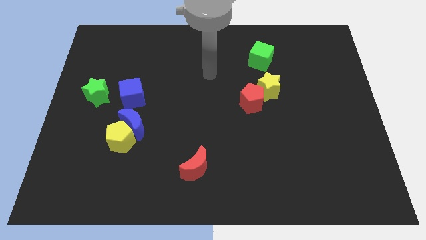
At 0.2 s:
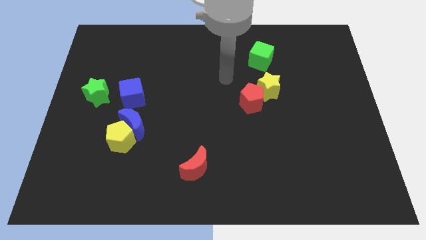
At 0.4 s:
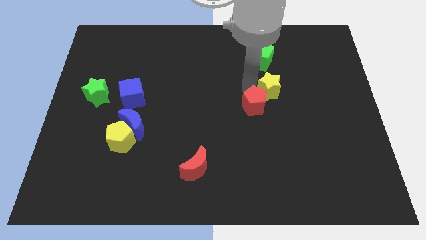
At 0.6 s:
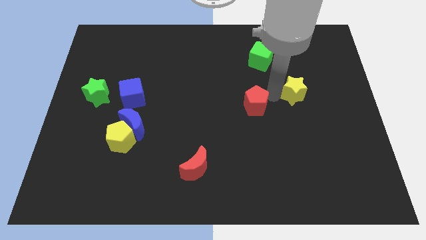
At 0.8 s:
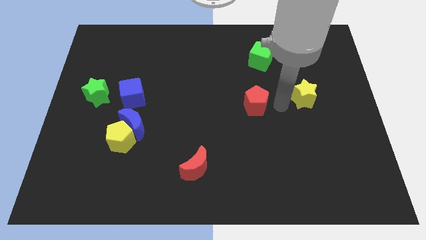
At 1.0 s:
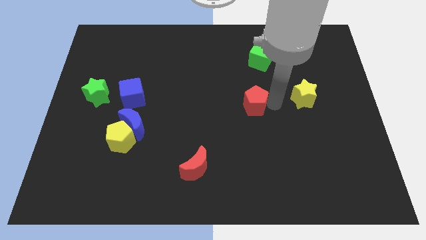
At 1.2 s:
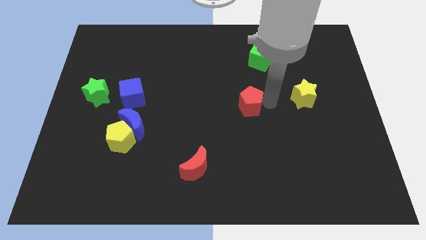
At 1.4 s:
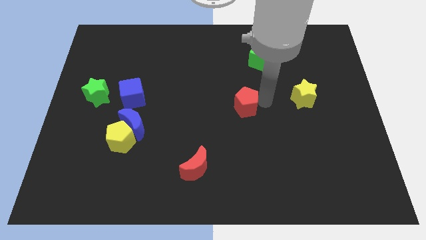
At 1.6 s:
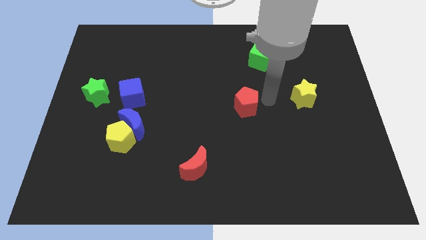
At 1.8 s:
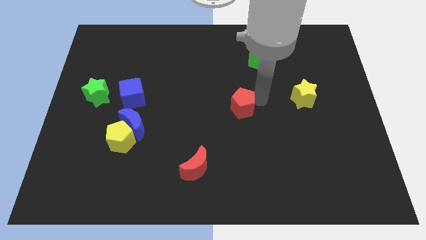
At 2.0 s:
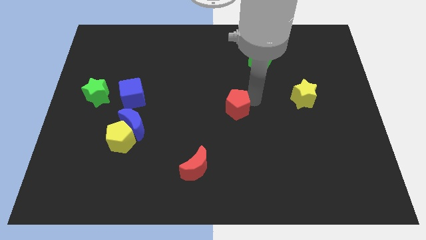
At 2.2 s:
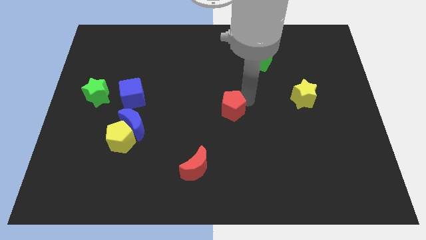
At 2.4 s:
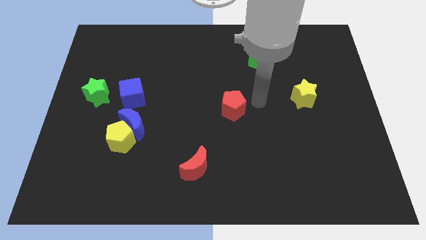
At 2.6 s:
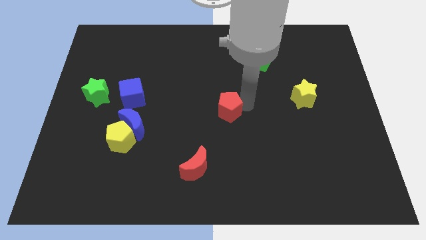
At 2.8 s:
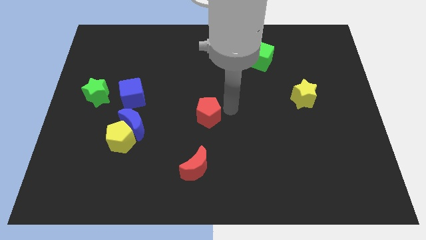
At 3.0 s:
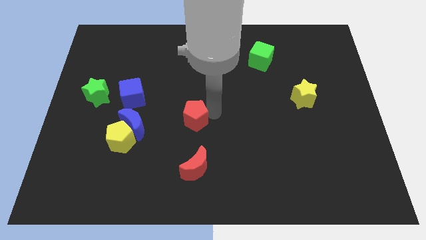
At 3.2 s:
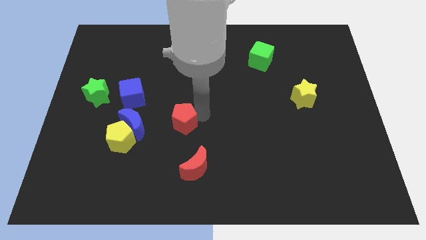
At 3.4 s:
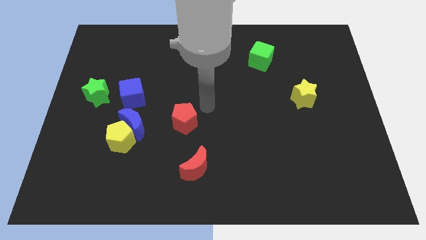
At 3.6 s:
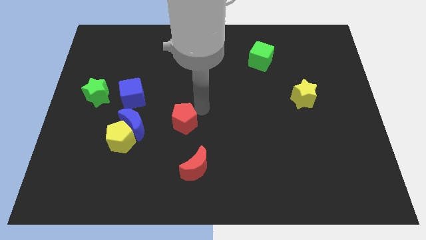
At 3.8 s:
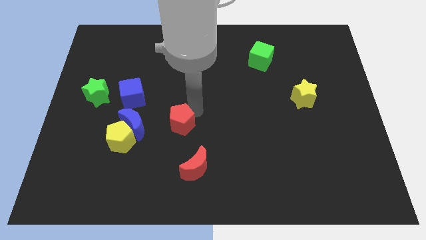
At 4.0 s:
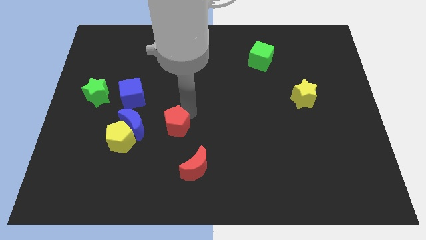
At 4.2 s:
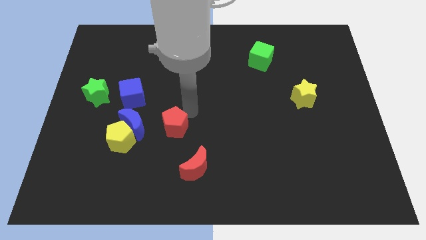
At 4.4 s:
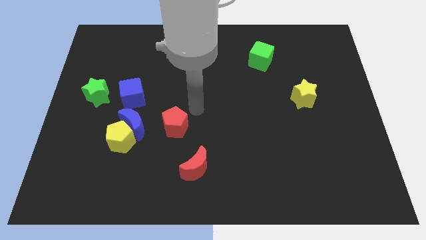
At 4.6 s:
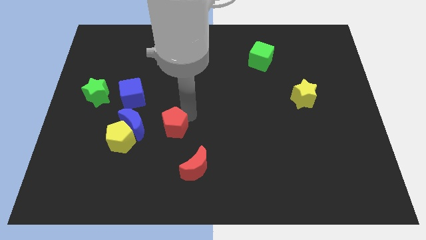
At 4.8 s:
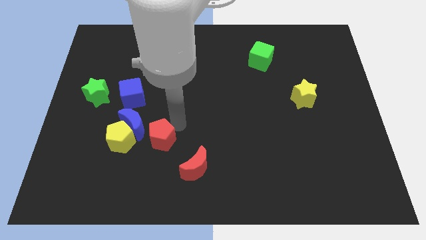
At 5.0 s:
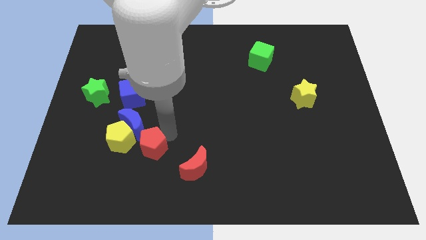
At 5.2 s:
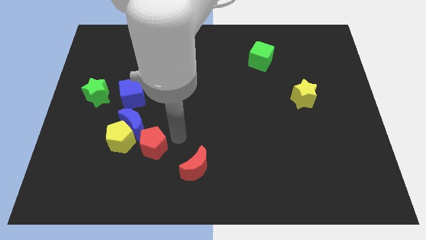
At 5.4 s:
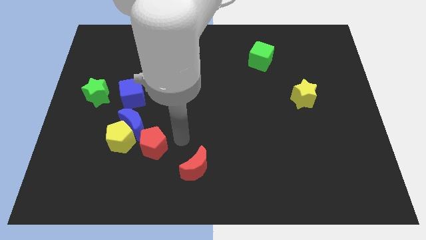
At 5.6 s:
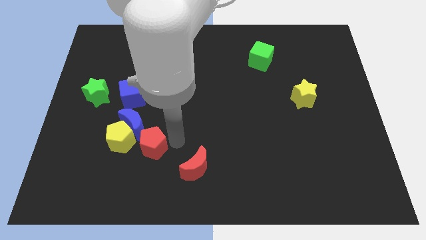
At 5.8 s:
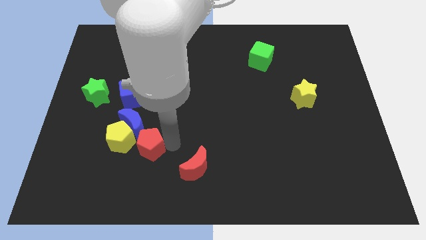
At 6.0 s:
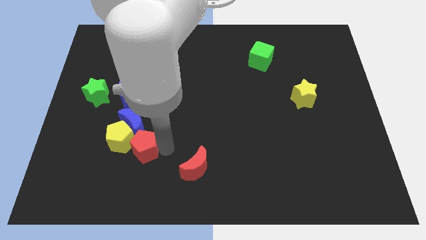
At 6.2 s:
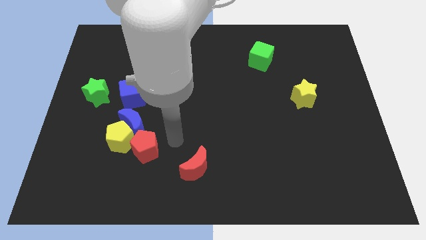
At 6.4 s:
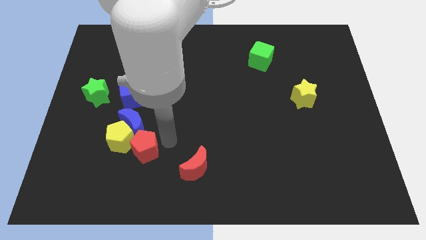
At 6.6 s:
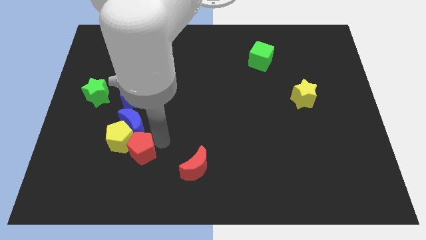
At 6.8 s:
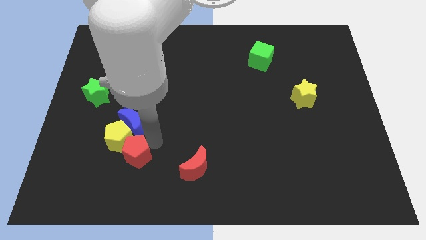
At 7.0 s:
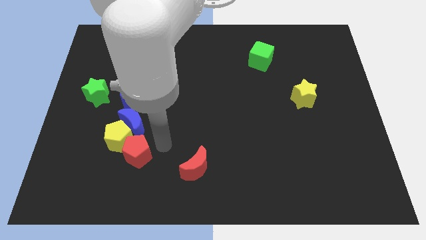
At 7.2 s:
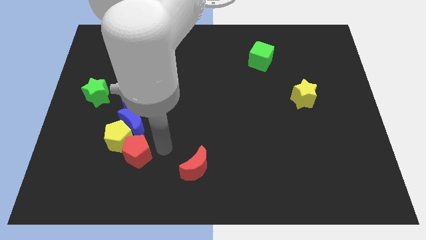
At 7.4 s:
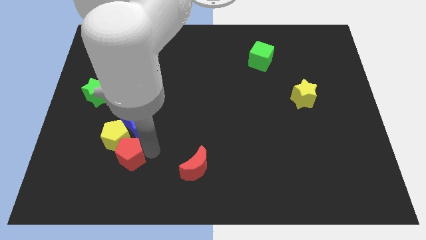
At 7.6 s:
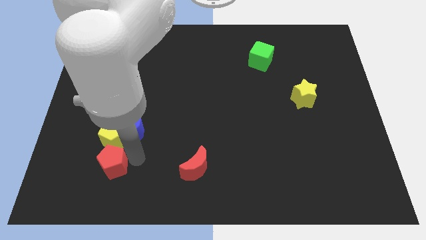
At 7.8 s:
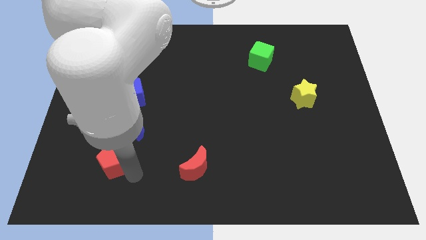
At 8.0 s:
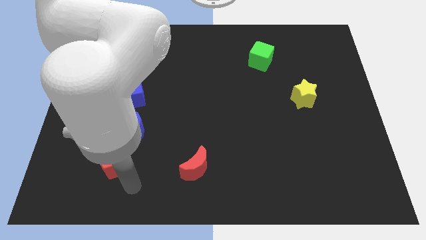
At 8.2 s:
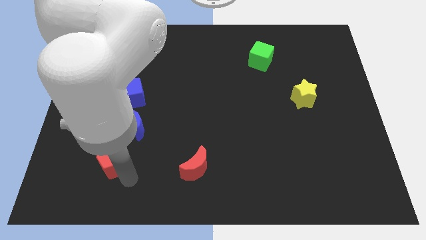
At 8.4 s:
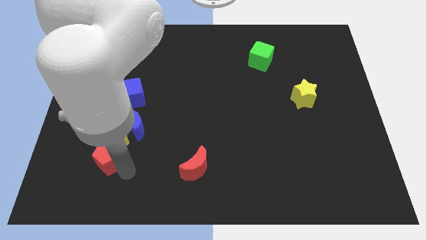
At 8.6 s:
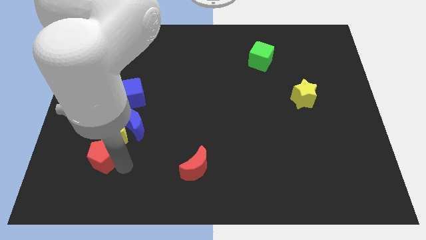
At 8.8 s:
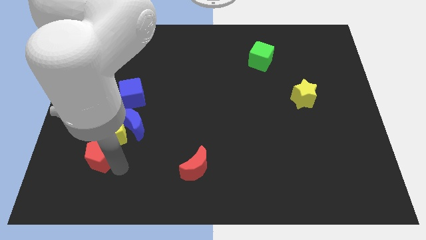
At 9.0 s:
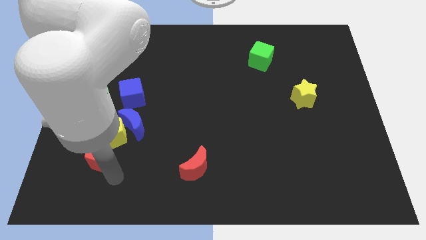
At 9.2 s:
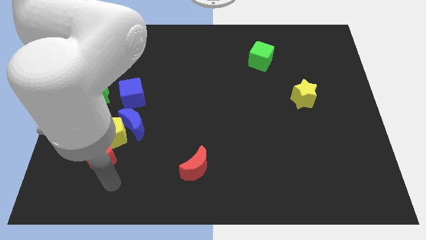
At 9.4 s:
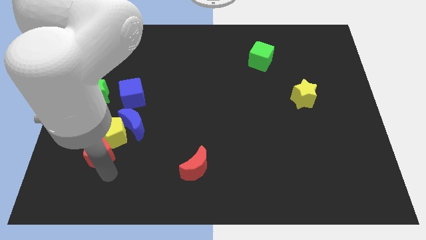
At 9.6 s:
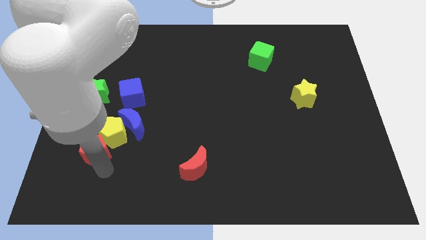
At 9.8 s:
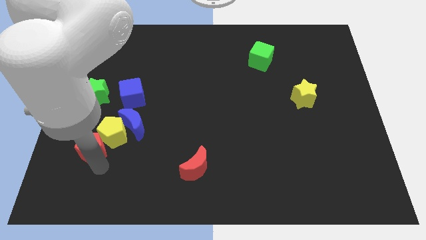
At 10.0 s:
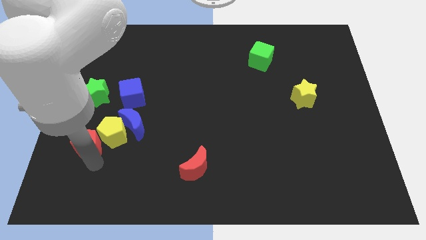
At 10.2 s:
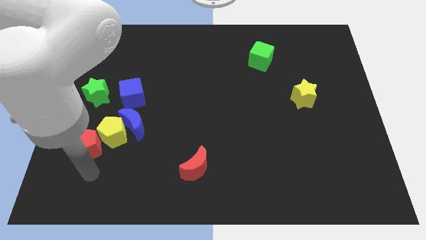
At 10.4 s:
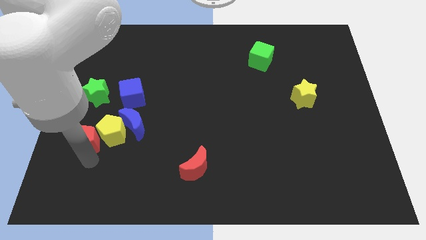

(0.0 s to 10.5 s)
slide the red pentagon to the left of the blue moon

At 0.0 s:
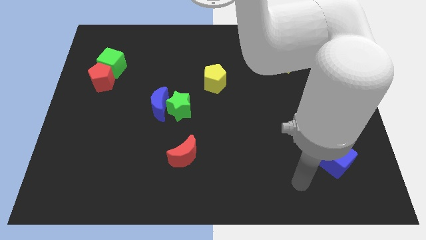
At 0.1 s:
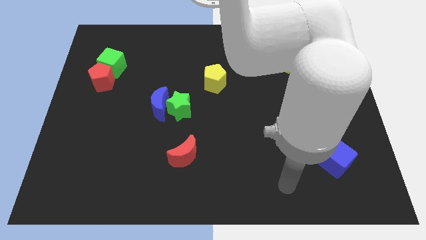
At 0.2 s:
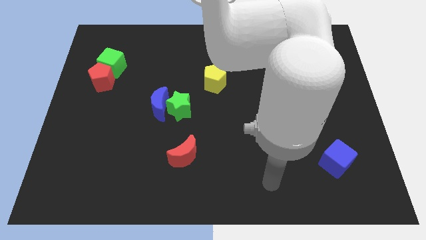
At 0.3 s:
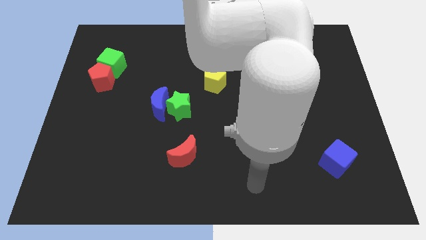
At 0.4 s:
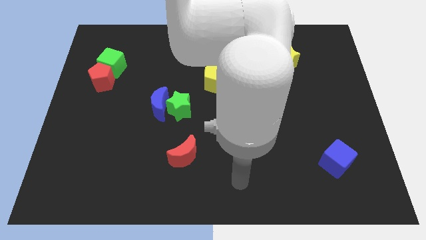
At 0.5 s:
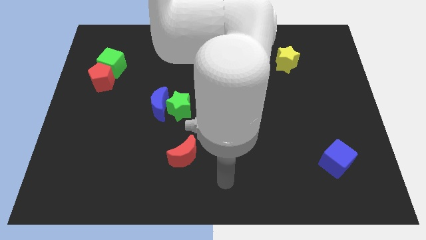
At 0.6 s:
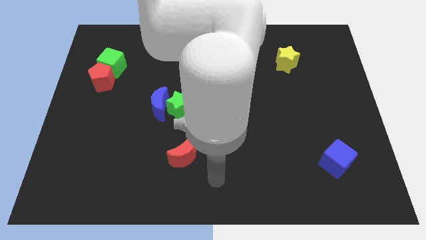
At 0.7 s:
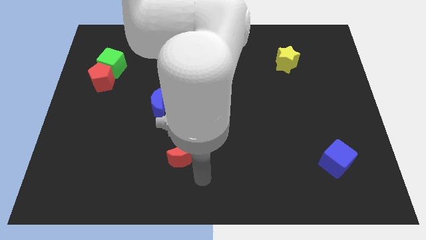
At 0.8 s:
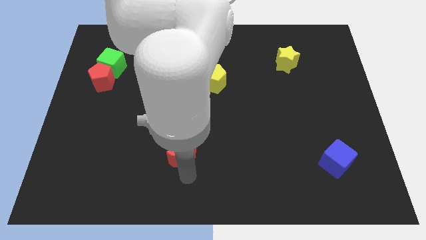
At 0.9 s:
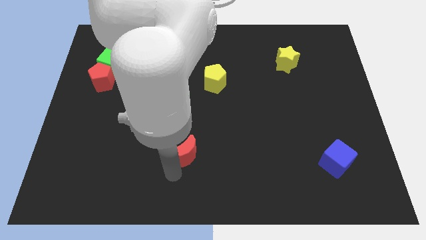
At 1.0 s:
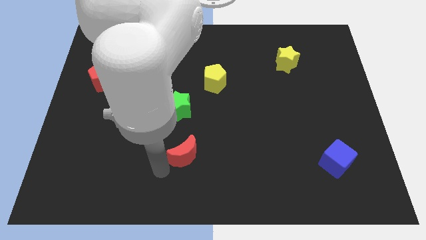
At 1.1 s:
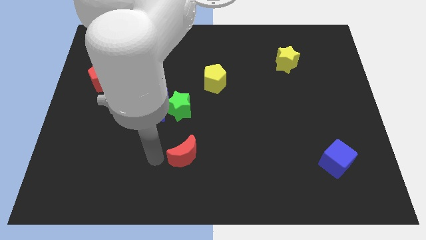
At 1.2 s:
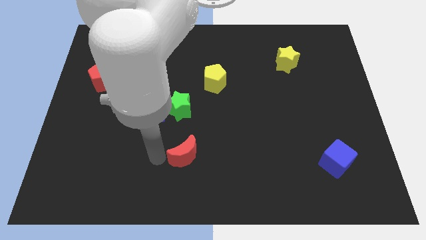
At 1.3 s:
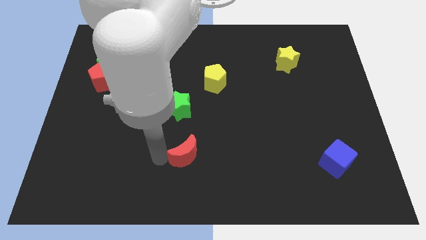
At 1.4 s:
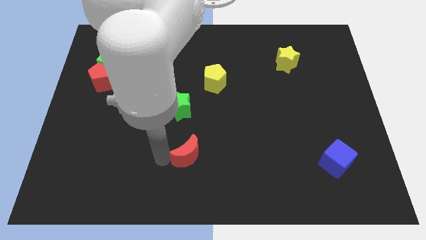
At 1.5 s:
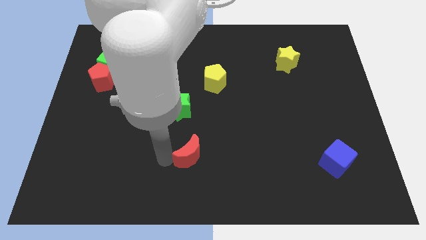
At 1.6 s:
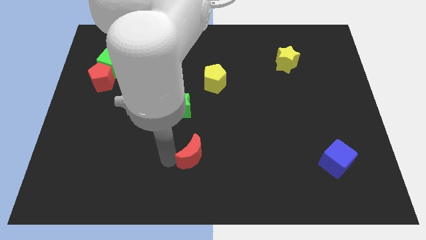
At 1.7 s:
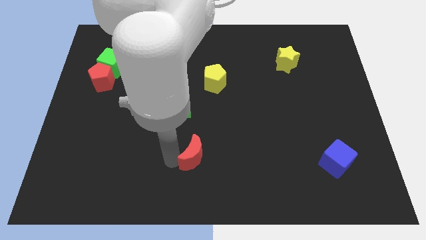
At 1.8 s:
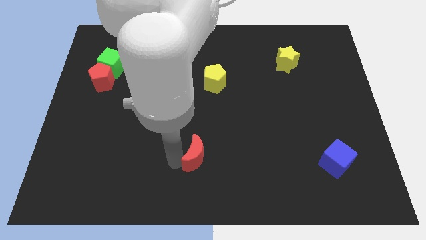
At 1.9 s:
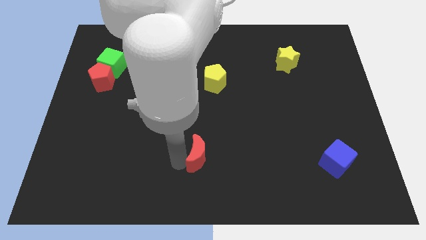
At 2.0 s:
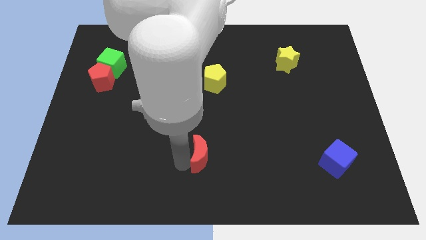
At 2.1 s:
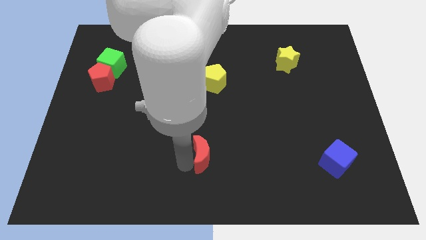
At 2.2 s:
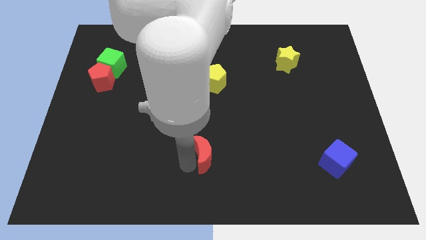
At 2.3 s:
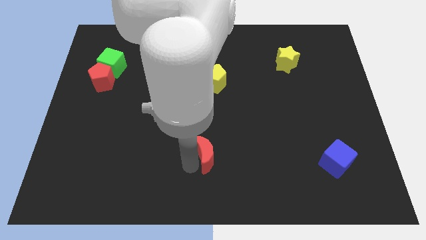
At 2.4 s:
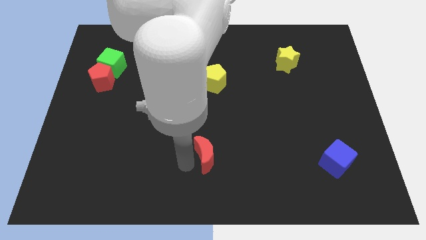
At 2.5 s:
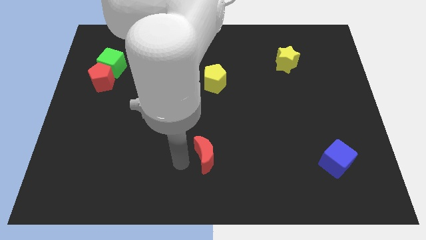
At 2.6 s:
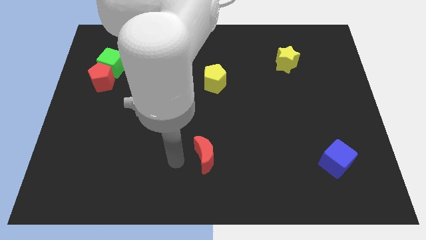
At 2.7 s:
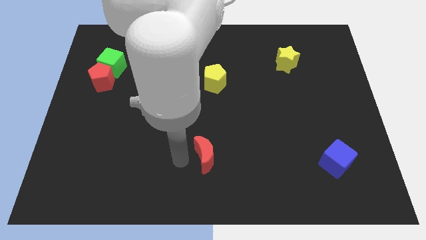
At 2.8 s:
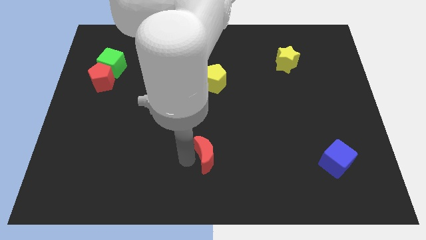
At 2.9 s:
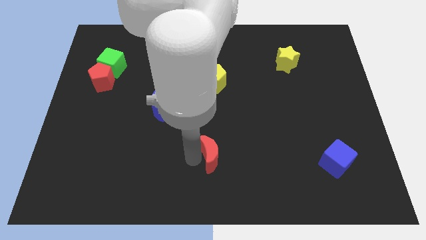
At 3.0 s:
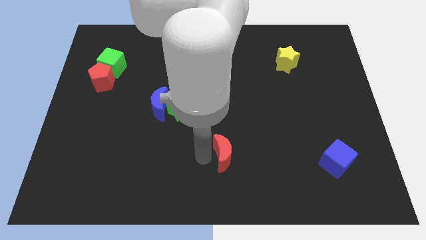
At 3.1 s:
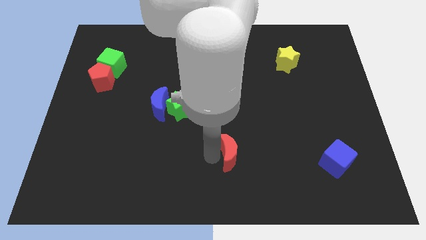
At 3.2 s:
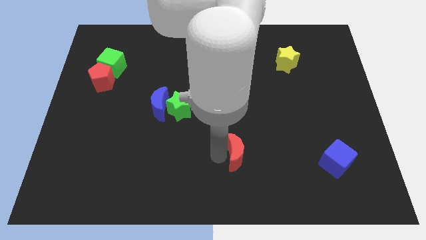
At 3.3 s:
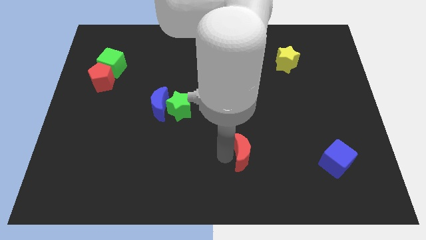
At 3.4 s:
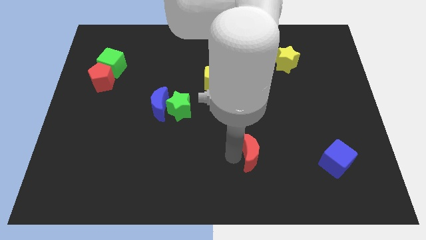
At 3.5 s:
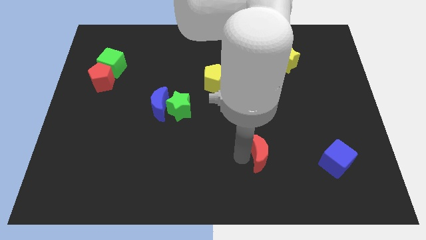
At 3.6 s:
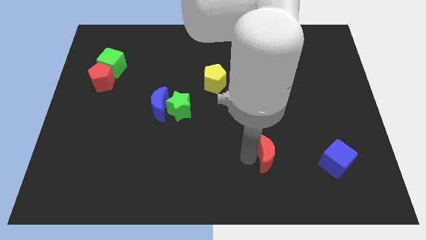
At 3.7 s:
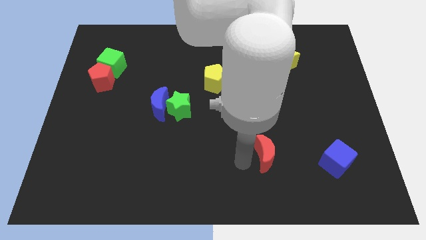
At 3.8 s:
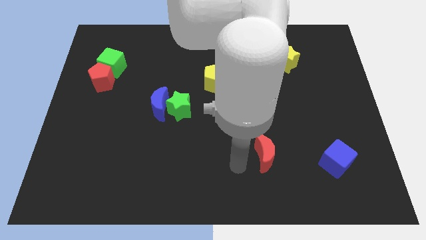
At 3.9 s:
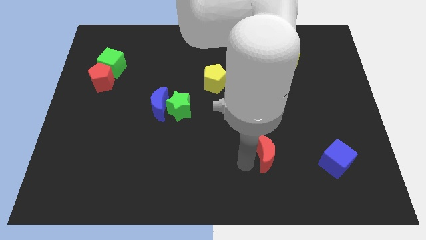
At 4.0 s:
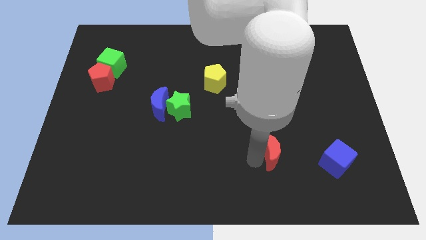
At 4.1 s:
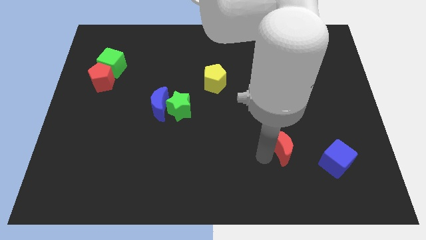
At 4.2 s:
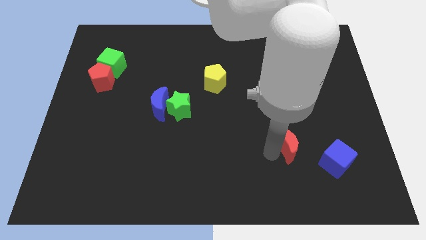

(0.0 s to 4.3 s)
put the red moon to the top left of the blue cube
